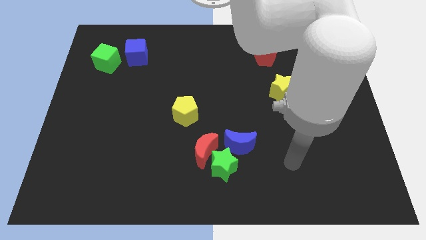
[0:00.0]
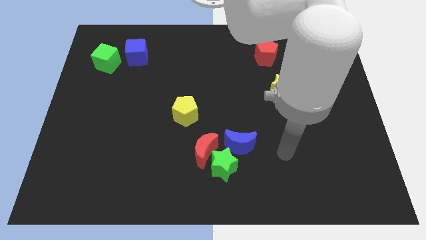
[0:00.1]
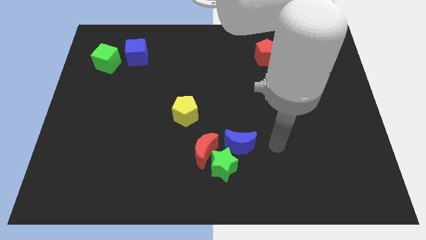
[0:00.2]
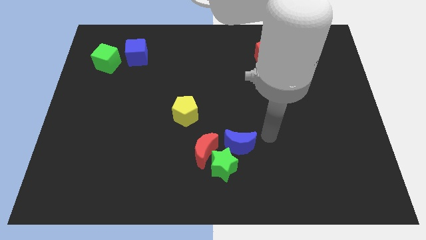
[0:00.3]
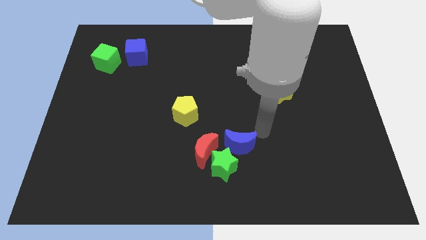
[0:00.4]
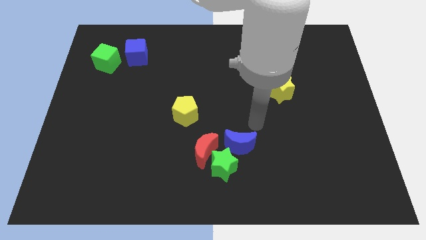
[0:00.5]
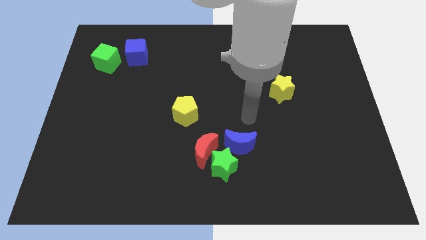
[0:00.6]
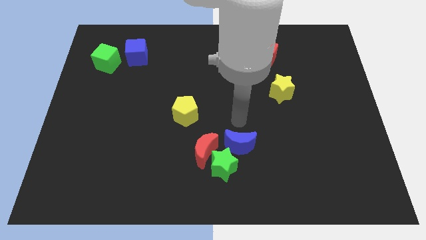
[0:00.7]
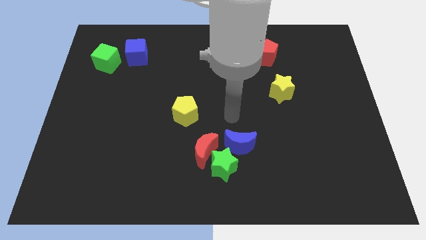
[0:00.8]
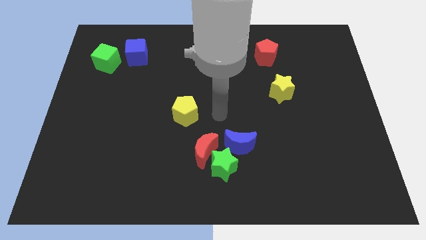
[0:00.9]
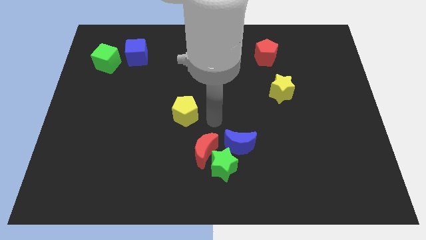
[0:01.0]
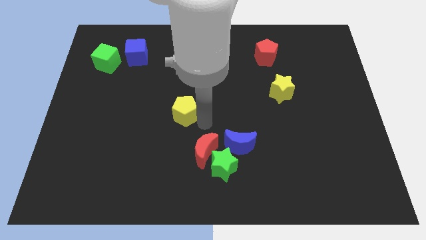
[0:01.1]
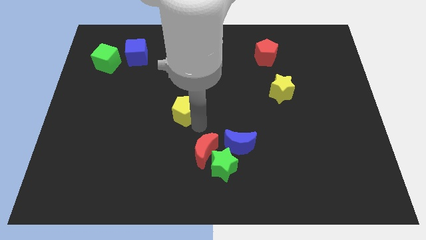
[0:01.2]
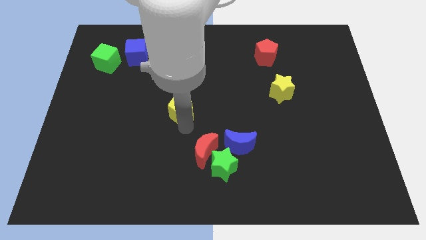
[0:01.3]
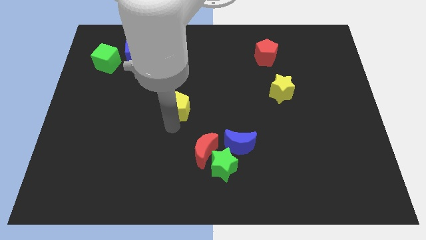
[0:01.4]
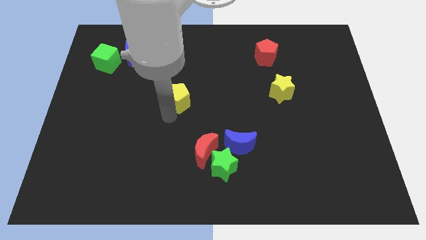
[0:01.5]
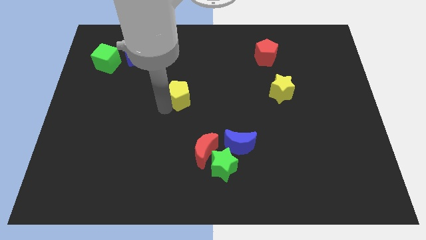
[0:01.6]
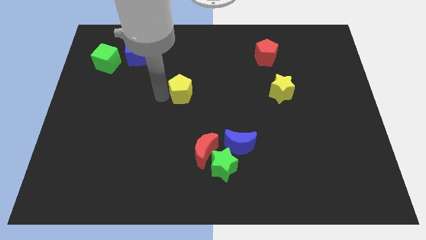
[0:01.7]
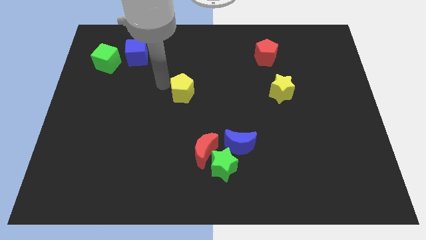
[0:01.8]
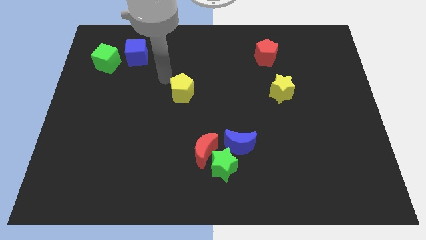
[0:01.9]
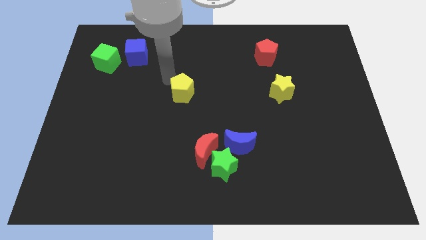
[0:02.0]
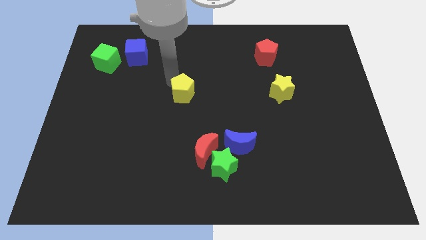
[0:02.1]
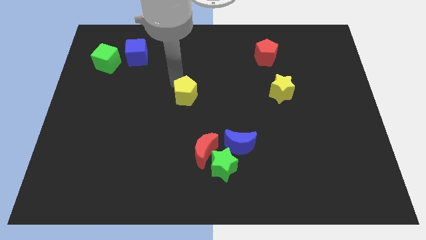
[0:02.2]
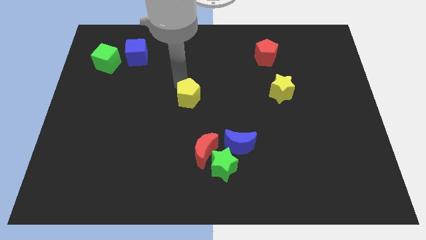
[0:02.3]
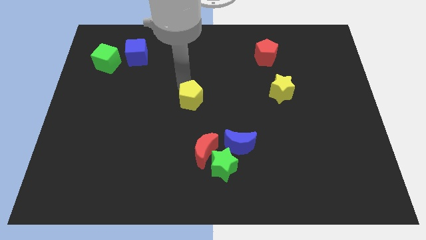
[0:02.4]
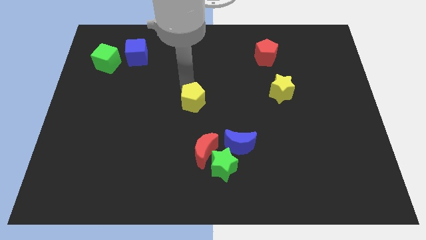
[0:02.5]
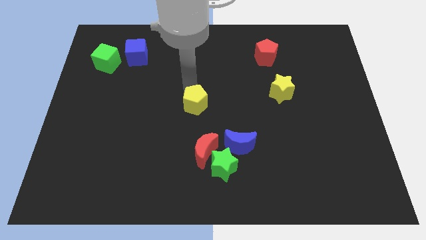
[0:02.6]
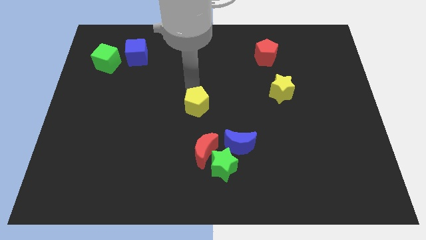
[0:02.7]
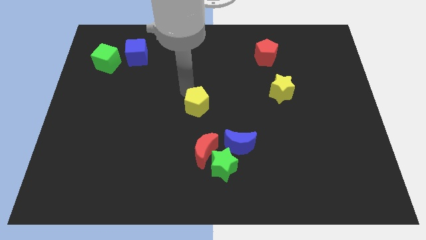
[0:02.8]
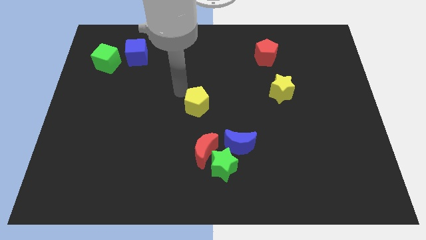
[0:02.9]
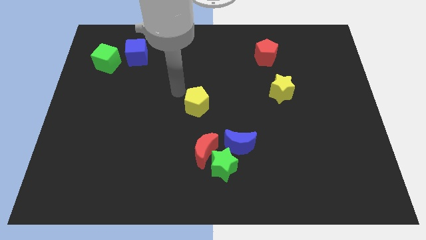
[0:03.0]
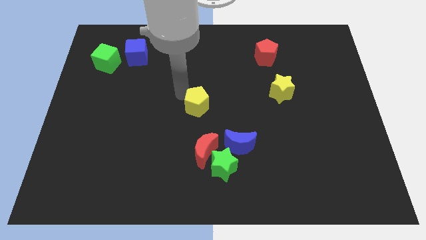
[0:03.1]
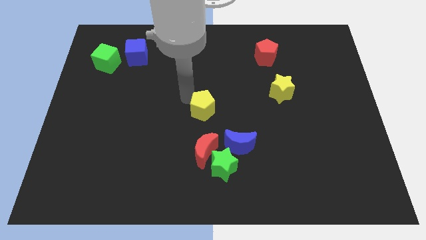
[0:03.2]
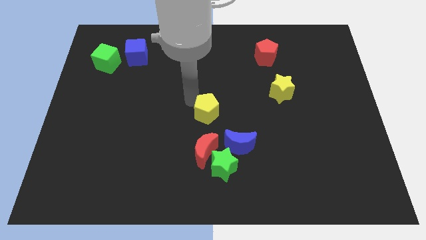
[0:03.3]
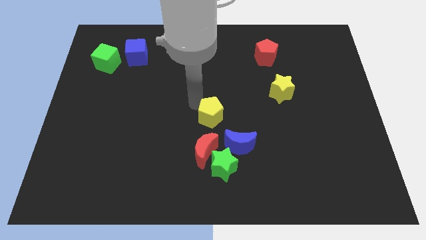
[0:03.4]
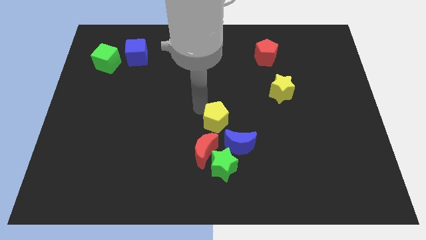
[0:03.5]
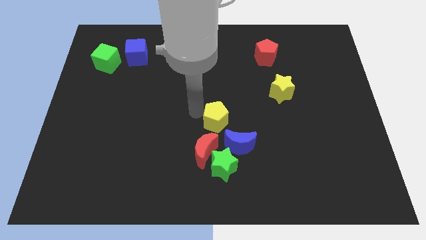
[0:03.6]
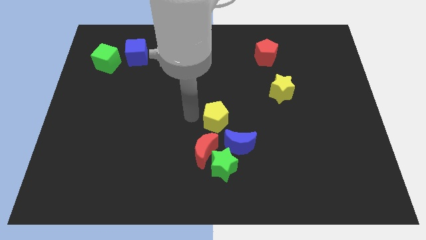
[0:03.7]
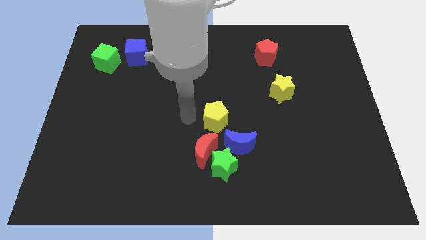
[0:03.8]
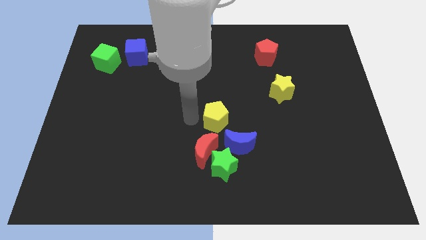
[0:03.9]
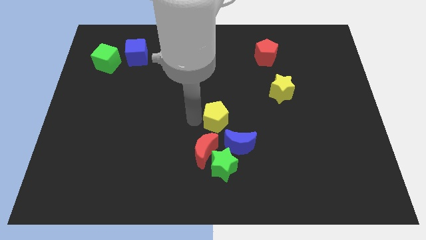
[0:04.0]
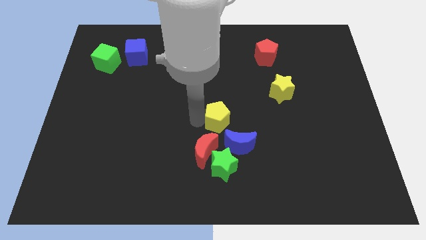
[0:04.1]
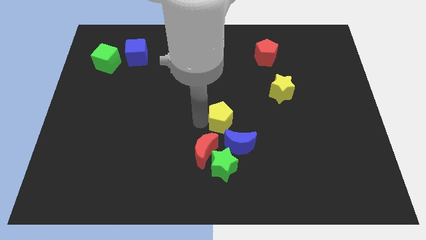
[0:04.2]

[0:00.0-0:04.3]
slightly move the yellow pentagon down and to the right

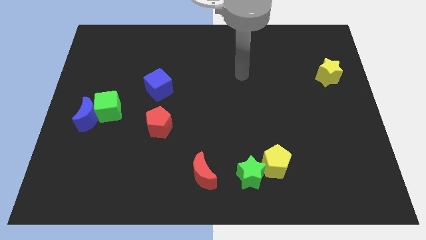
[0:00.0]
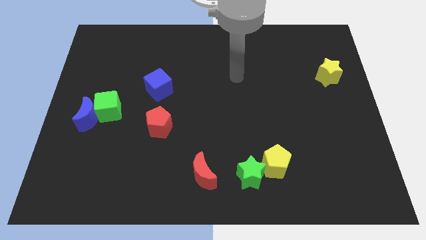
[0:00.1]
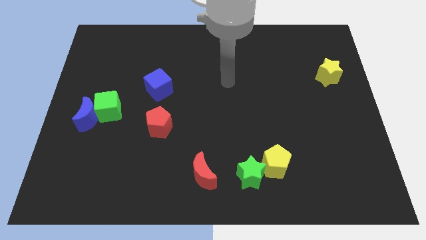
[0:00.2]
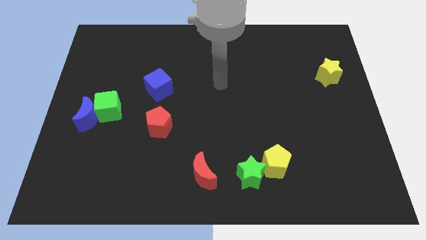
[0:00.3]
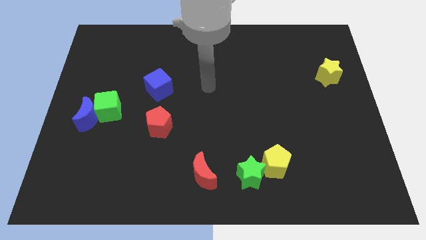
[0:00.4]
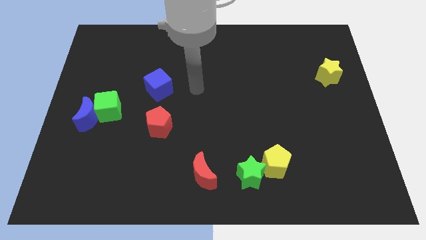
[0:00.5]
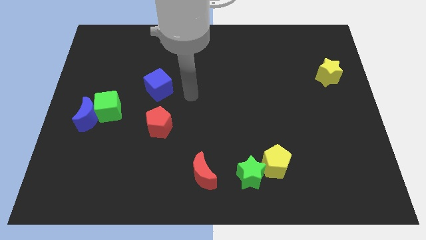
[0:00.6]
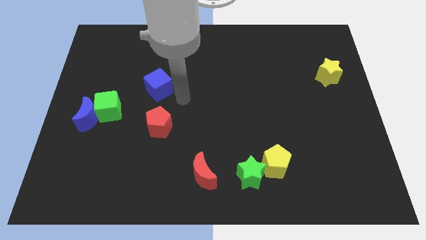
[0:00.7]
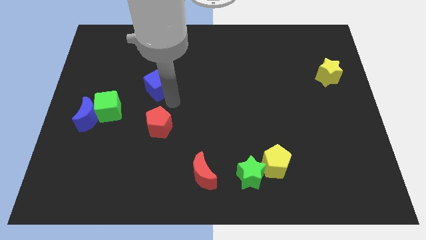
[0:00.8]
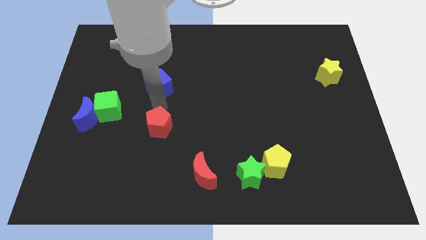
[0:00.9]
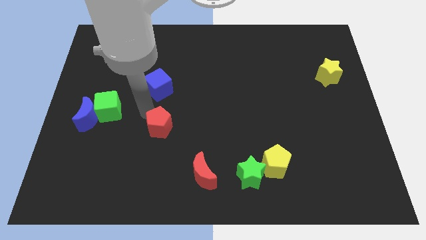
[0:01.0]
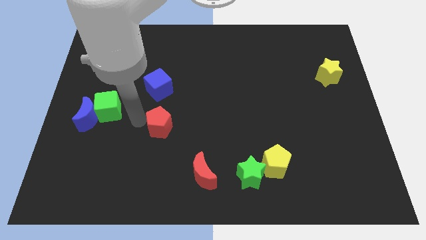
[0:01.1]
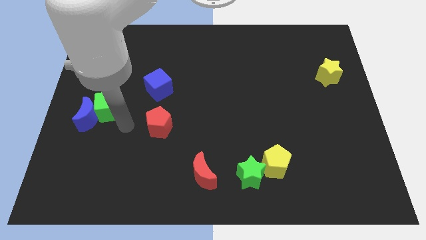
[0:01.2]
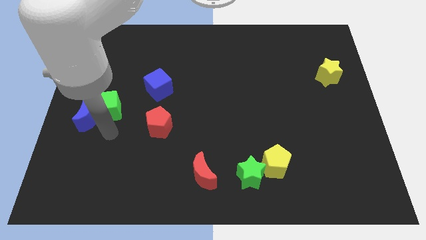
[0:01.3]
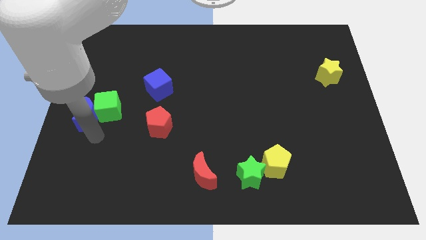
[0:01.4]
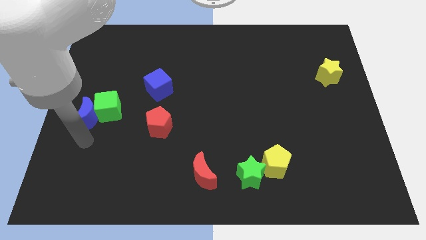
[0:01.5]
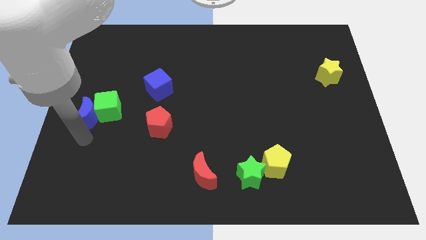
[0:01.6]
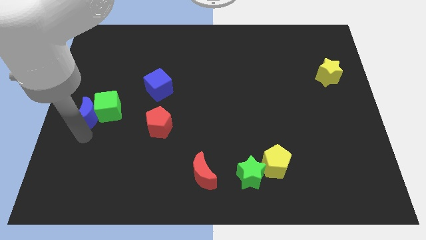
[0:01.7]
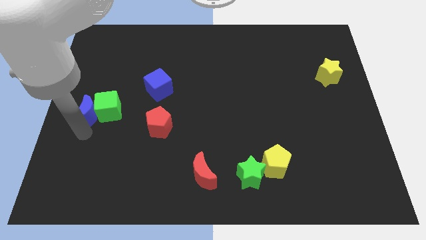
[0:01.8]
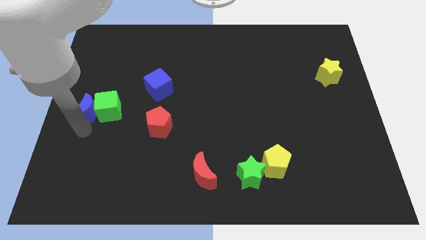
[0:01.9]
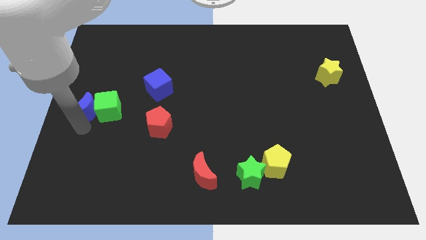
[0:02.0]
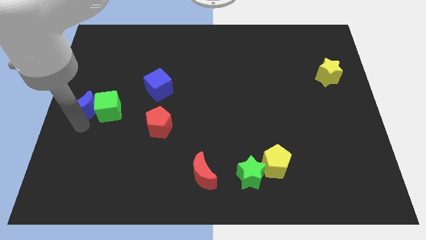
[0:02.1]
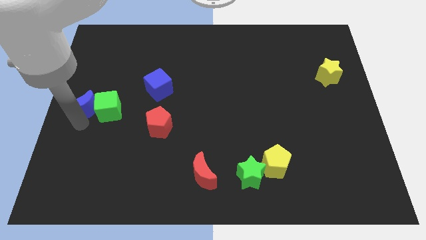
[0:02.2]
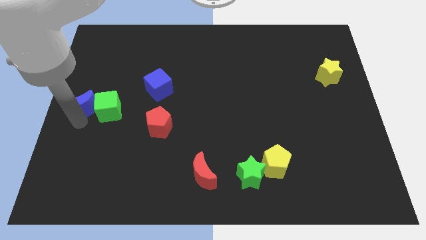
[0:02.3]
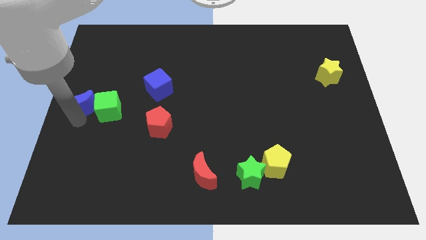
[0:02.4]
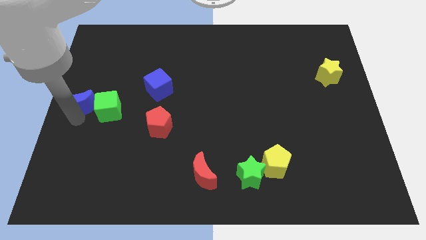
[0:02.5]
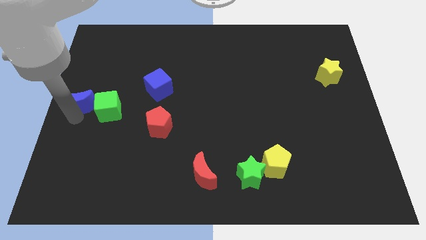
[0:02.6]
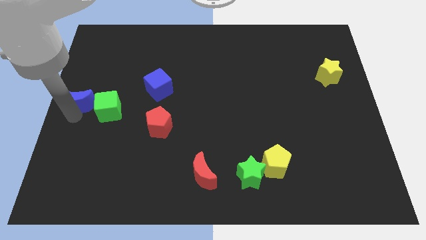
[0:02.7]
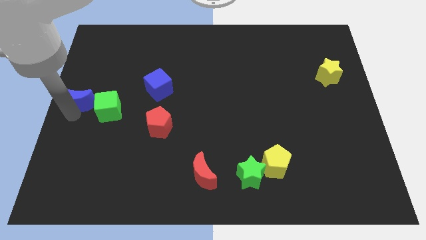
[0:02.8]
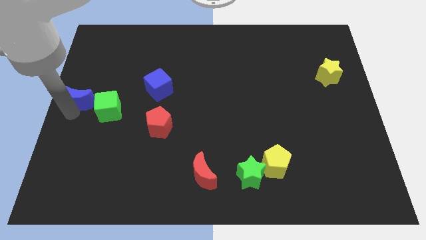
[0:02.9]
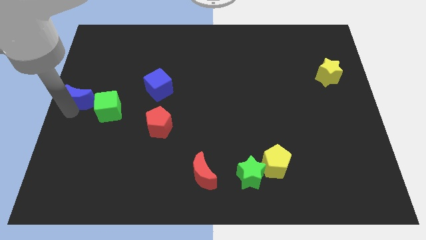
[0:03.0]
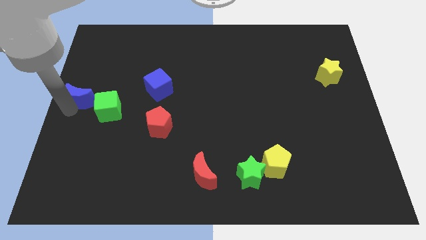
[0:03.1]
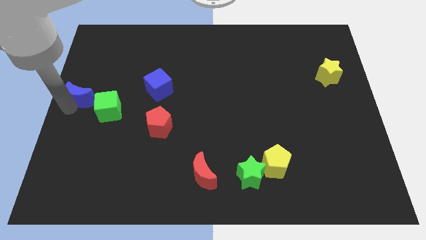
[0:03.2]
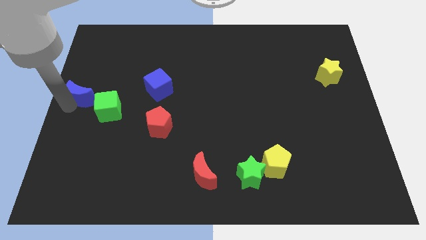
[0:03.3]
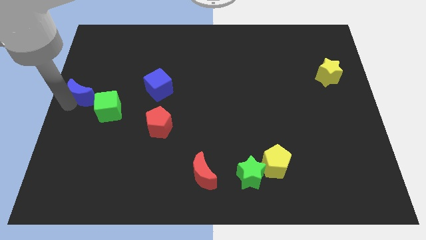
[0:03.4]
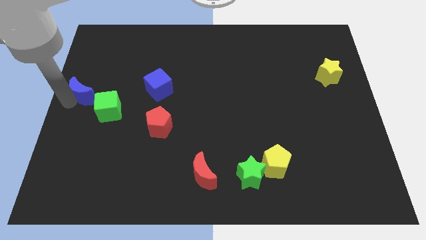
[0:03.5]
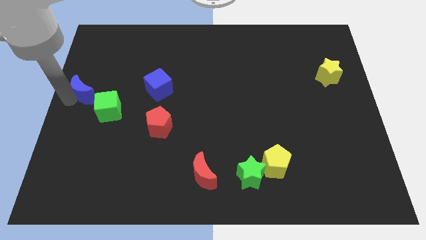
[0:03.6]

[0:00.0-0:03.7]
move the blue moon upwards a little bit

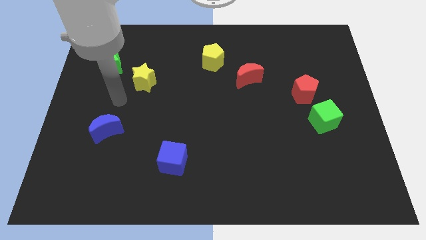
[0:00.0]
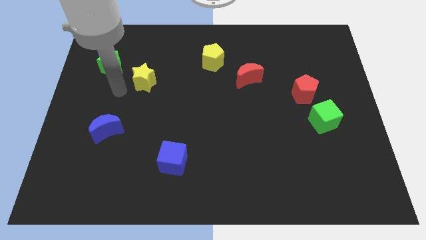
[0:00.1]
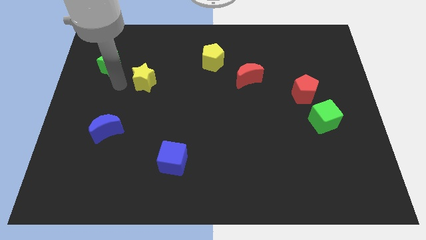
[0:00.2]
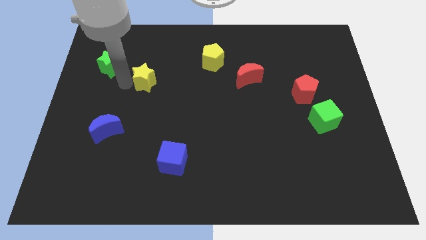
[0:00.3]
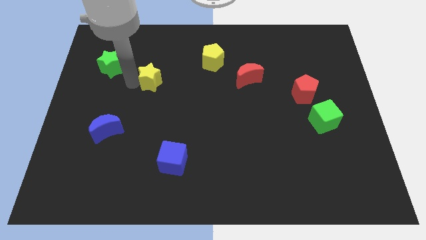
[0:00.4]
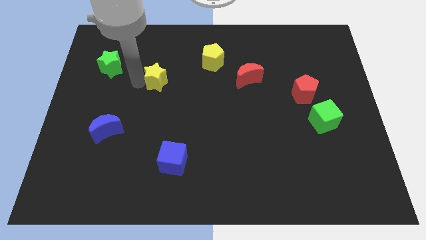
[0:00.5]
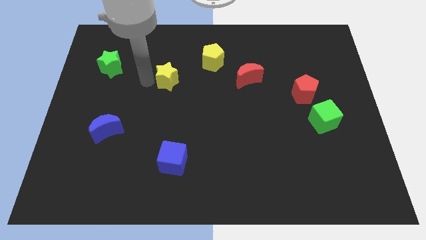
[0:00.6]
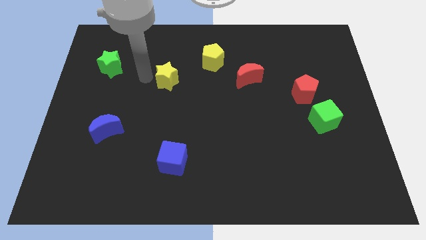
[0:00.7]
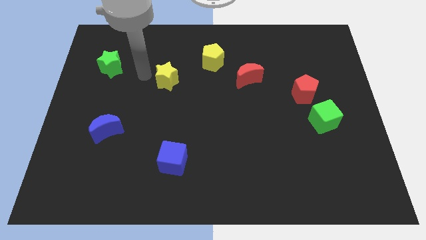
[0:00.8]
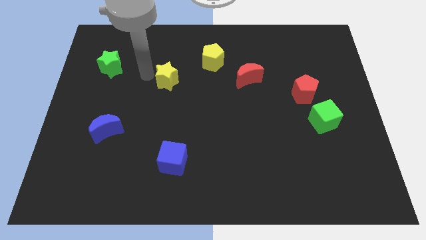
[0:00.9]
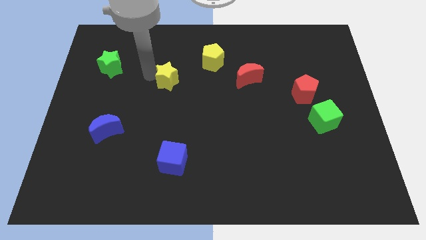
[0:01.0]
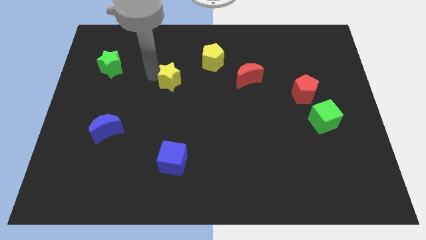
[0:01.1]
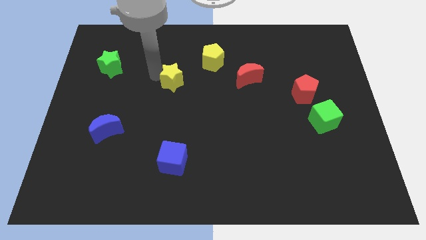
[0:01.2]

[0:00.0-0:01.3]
move the yellow star to the right a little
